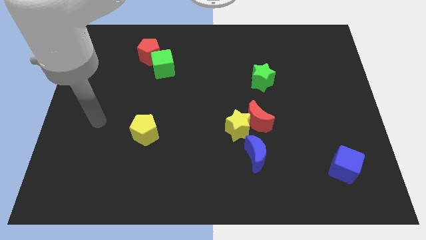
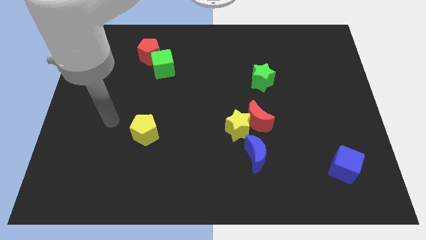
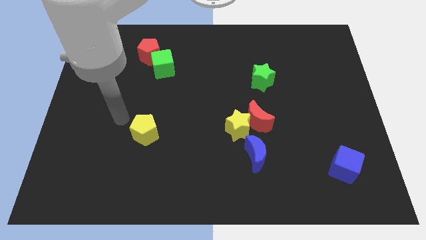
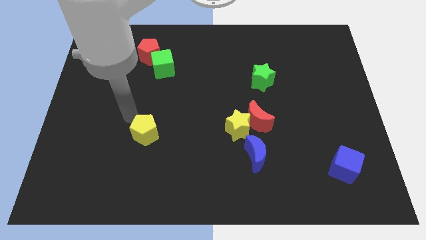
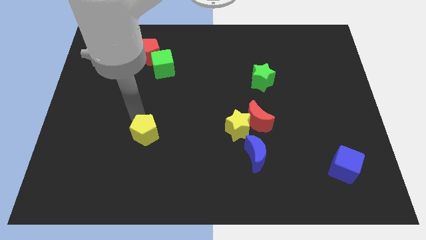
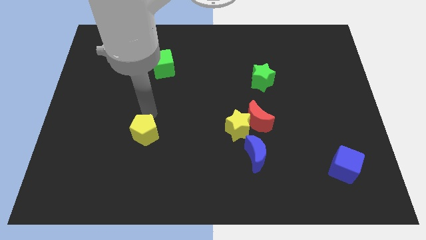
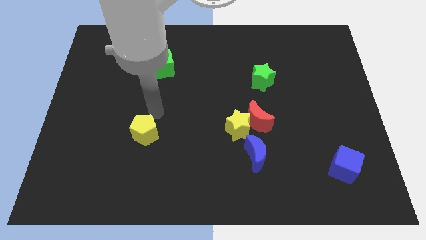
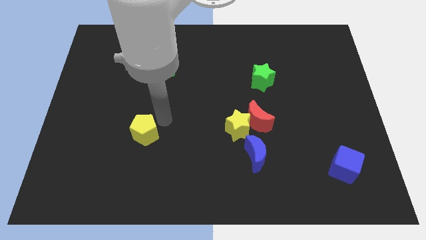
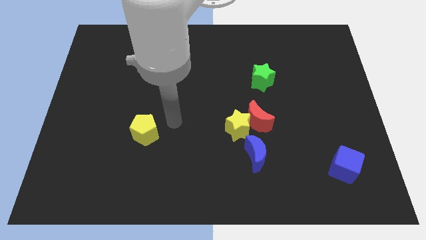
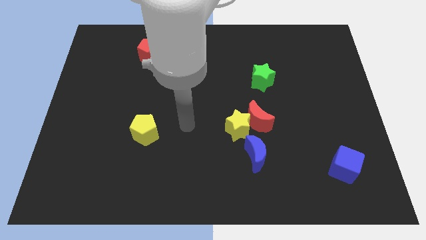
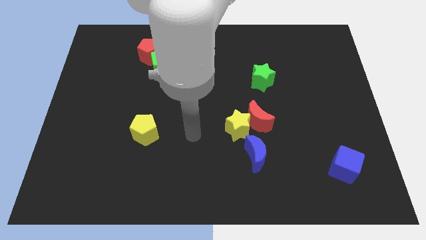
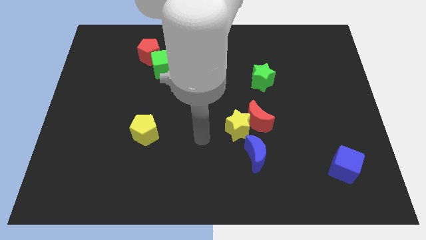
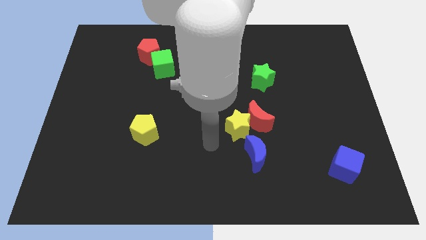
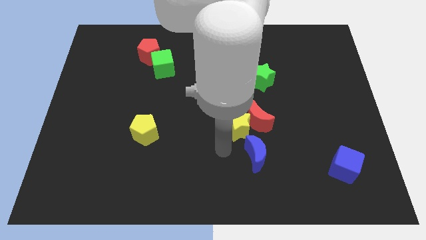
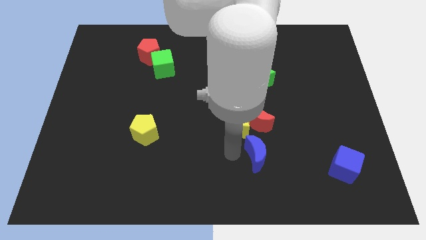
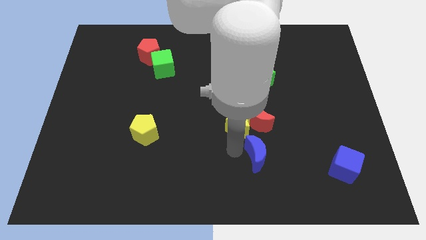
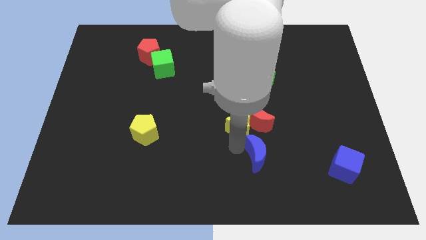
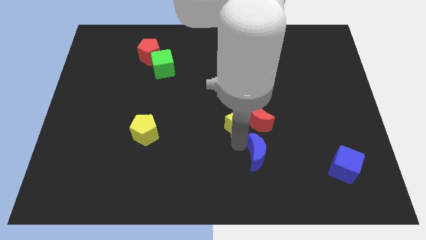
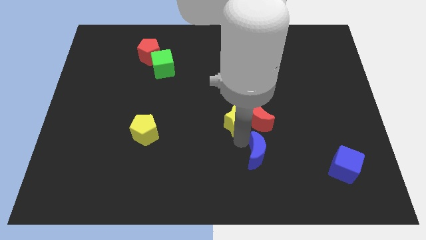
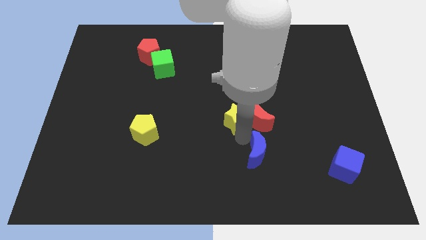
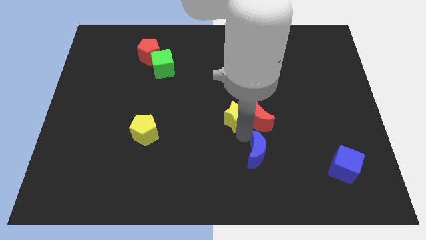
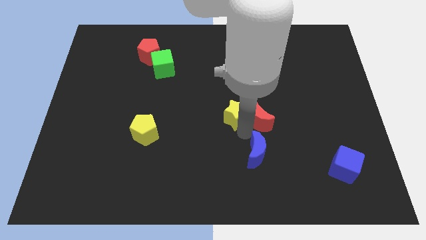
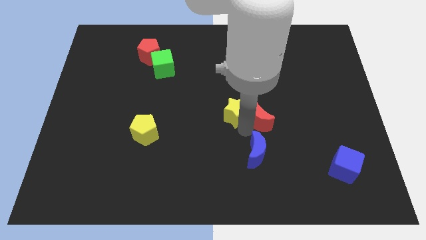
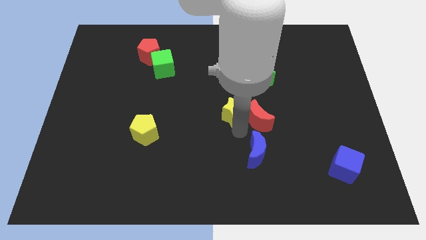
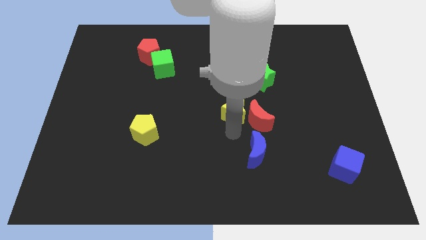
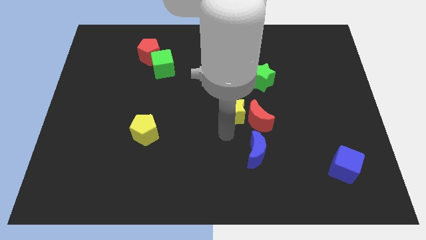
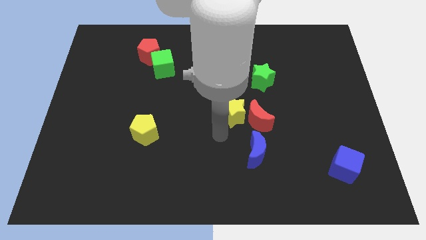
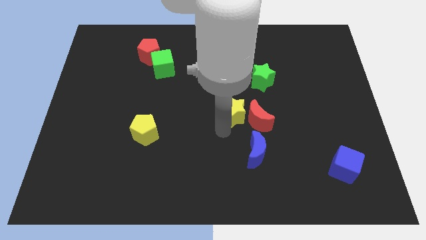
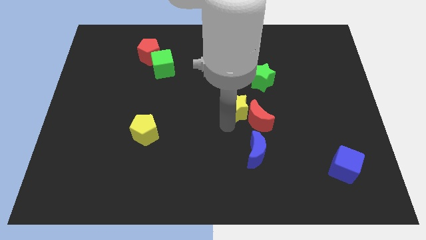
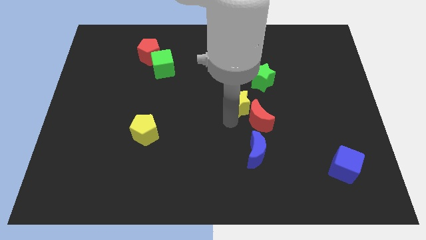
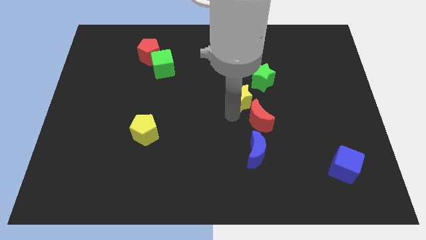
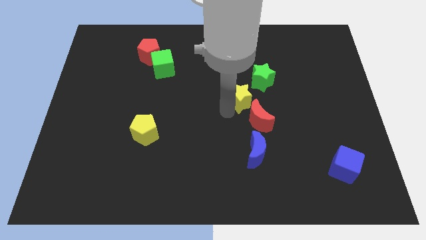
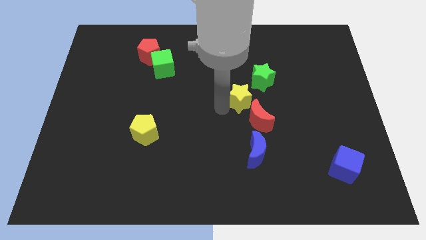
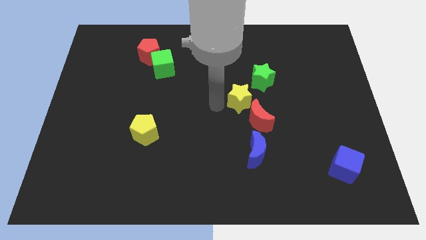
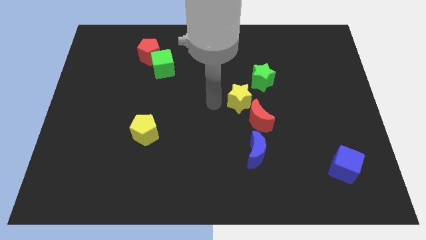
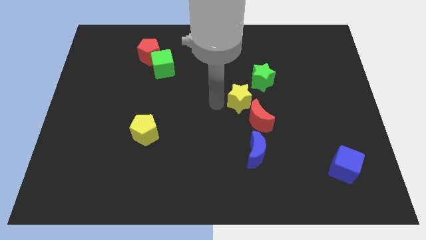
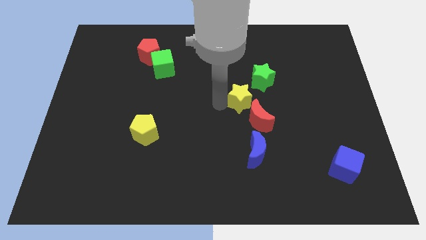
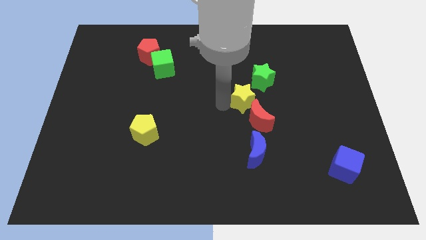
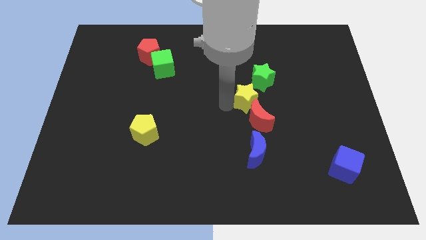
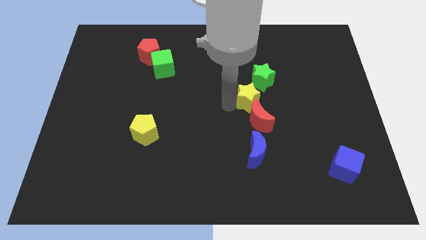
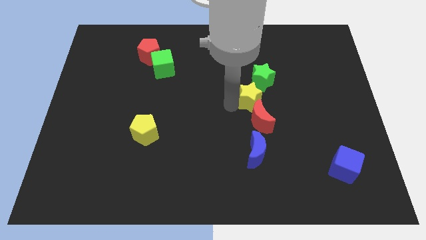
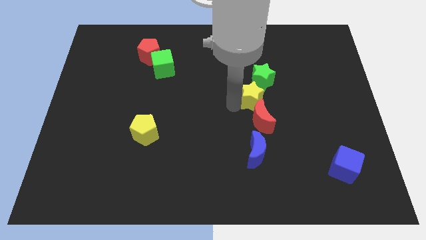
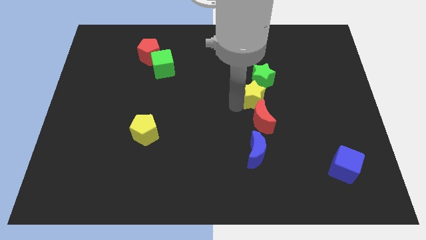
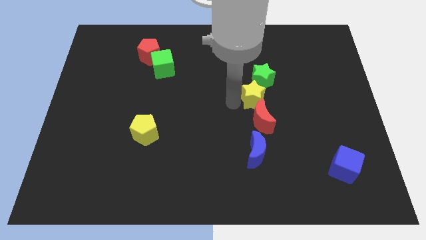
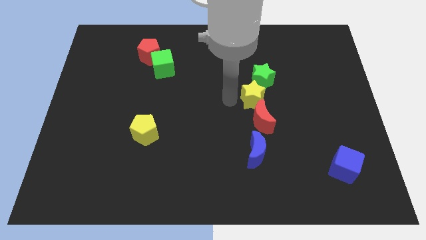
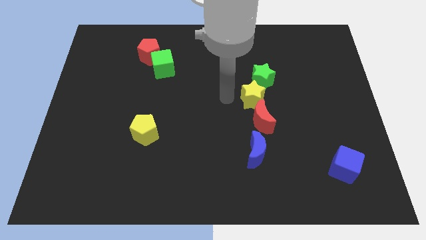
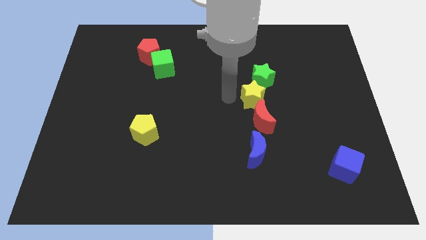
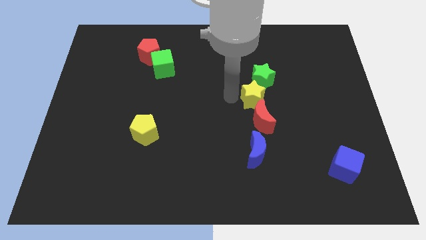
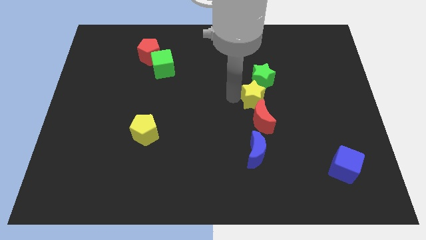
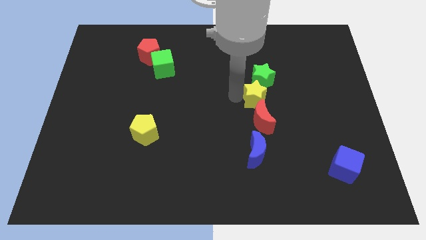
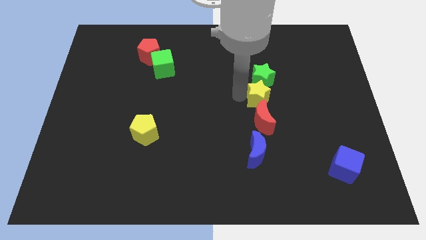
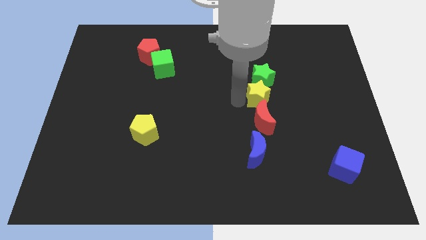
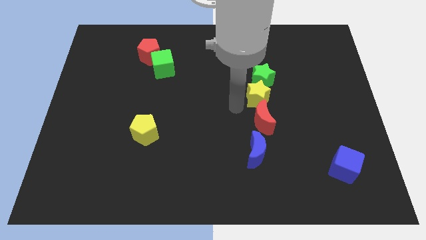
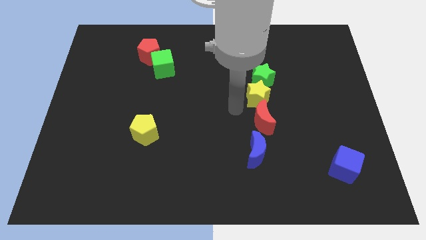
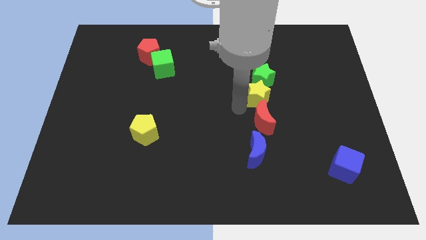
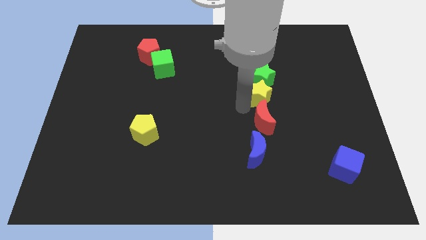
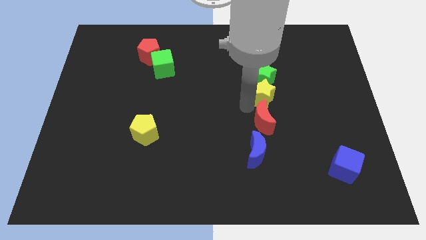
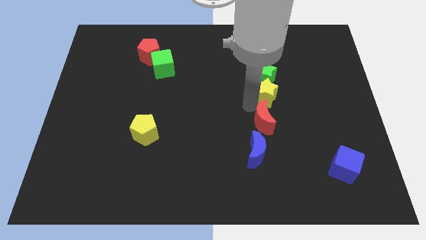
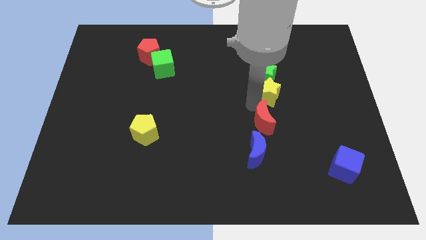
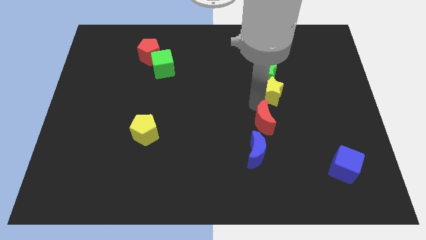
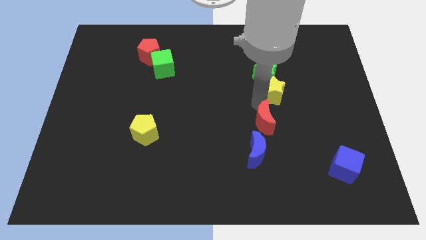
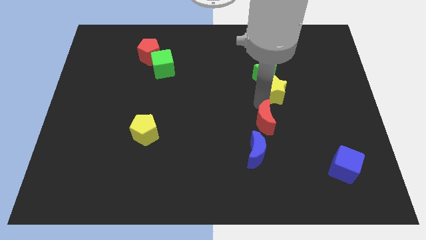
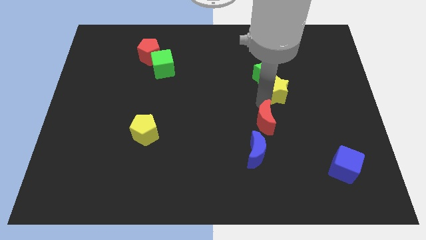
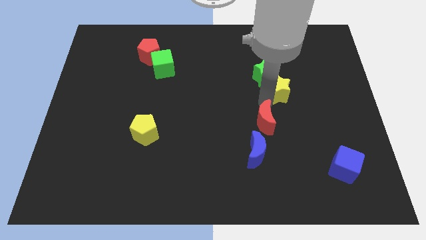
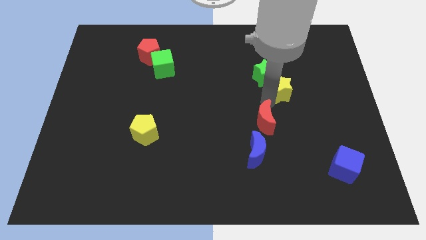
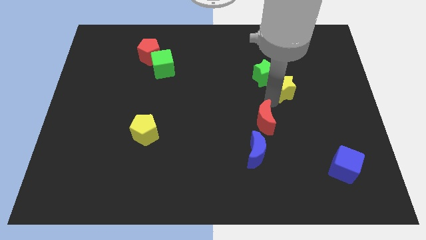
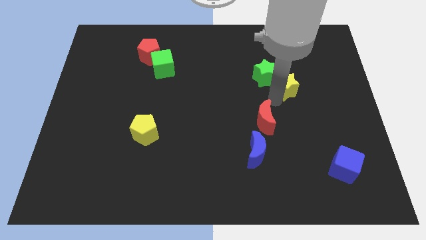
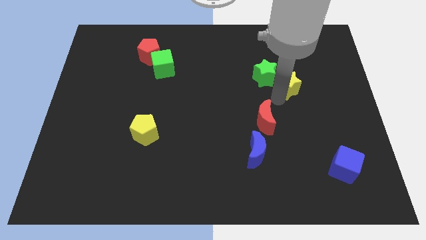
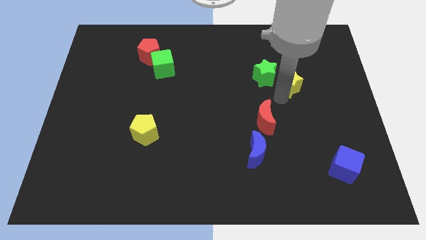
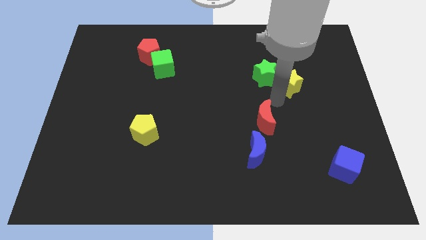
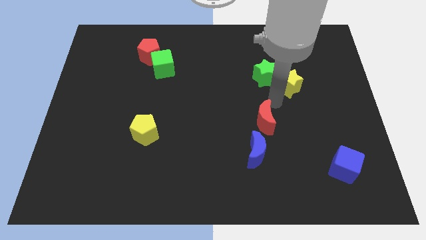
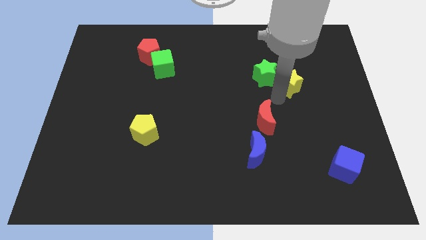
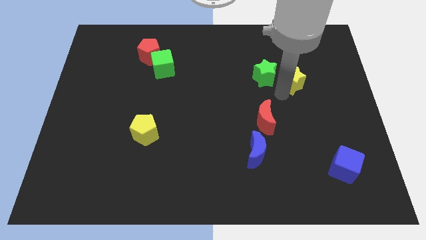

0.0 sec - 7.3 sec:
slide the yellow star upwards and to the right diagonally

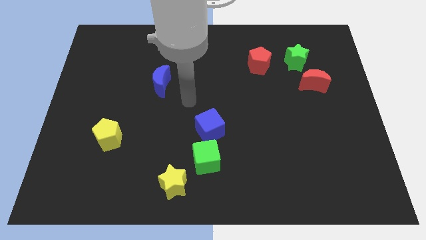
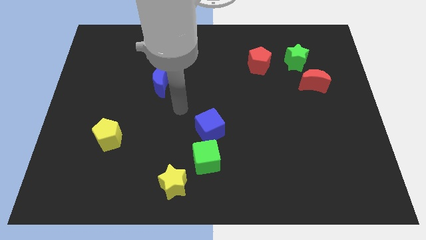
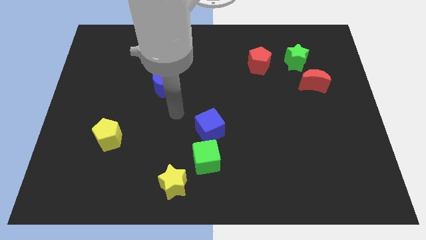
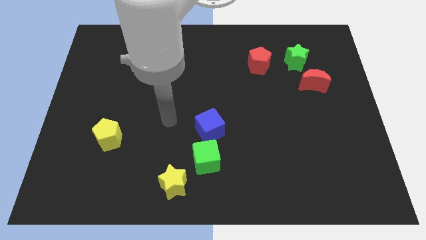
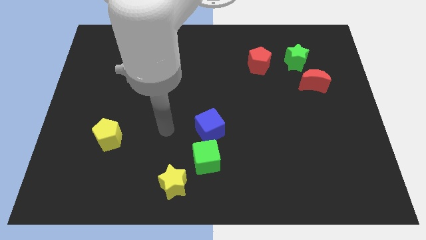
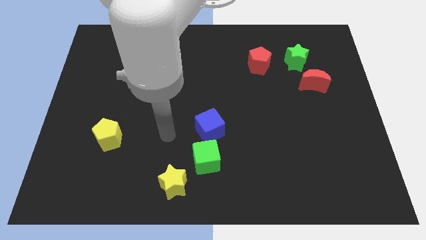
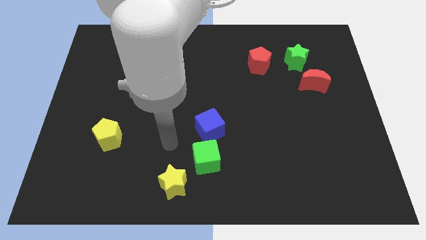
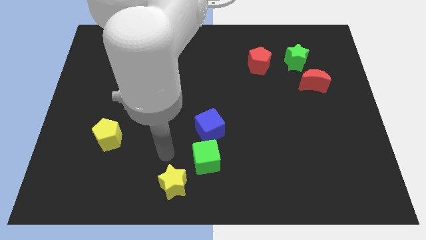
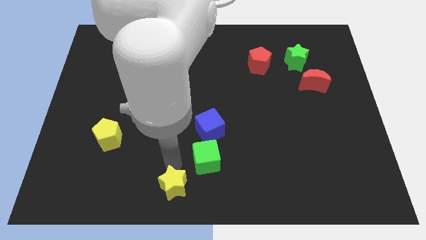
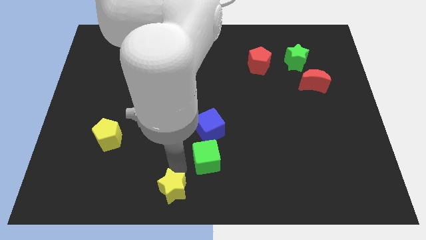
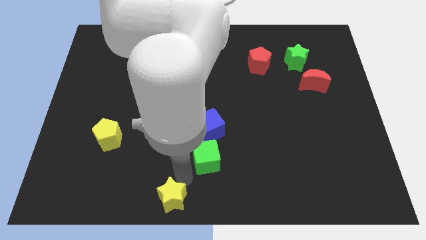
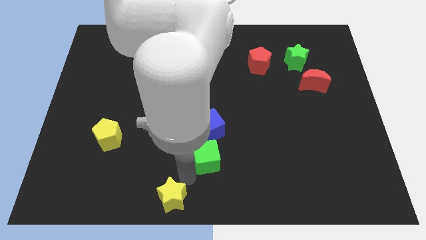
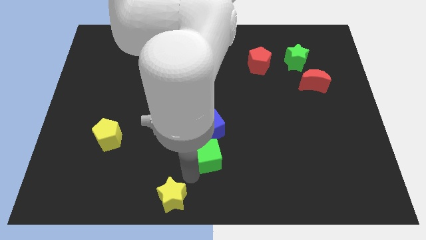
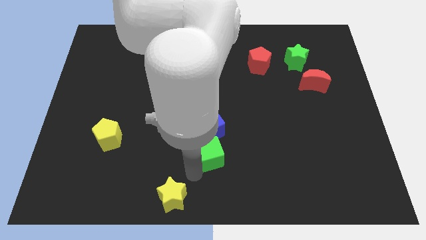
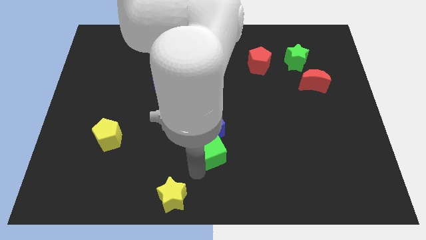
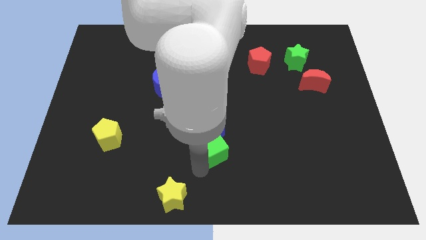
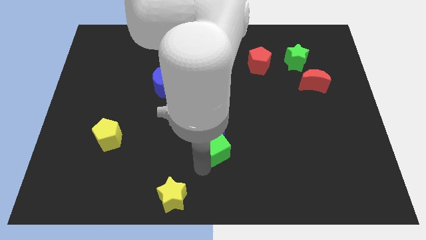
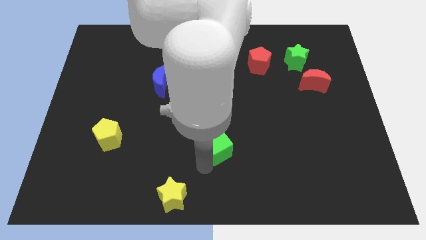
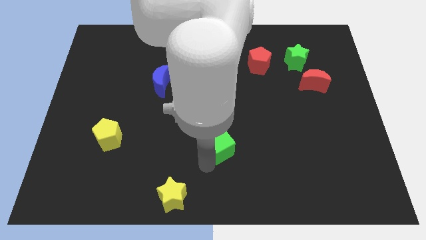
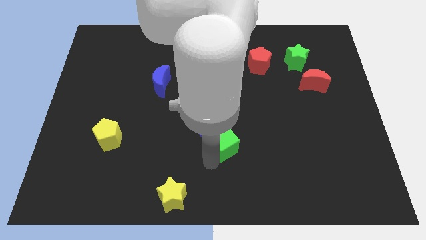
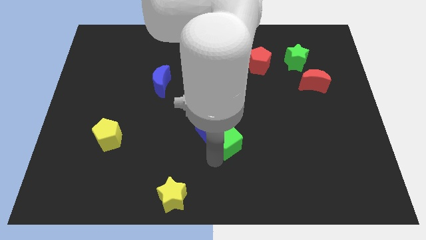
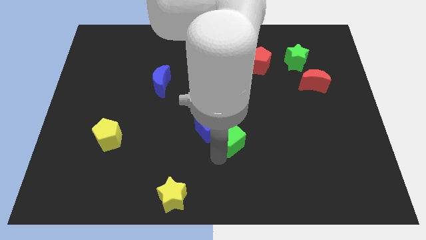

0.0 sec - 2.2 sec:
move the green cube somewhat up and to the right
